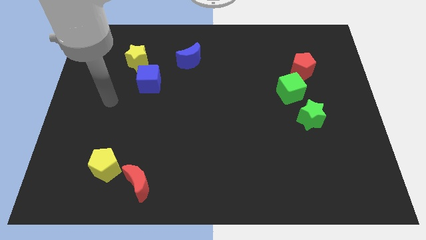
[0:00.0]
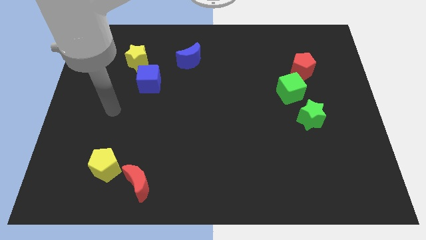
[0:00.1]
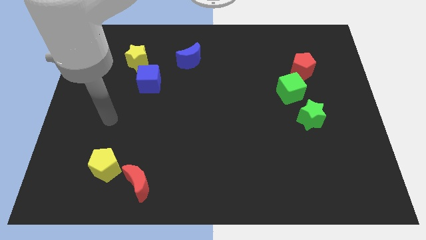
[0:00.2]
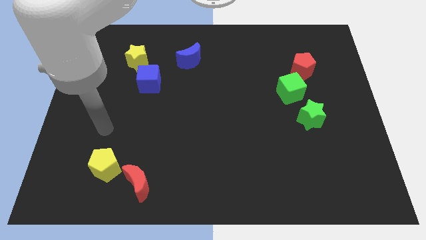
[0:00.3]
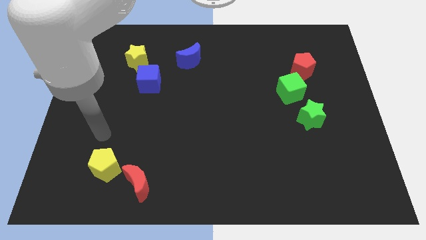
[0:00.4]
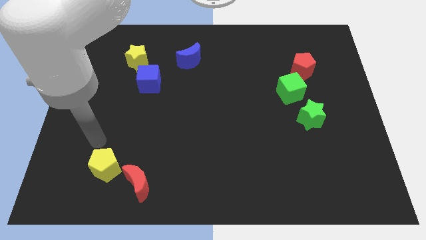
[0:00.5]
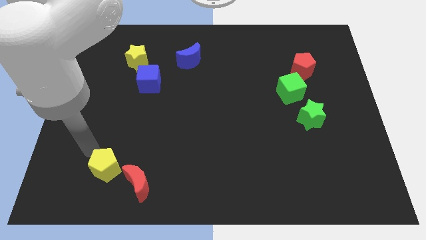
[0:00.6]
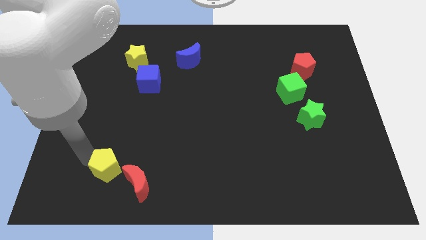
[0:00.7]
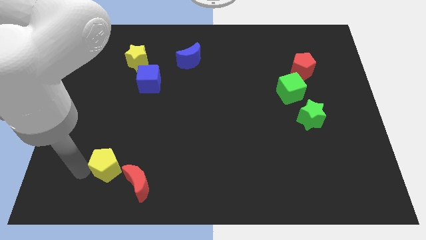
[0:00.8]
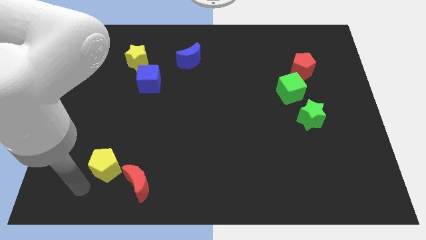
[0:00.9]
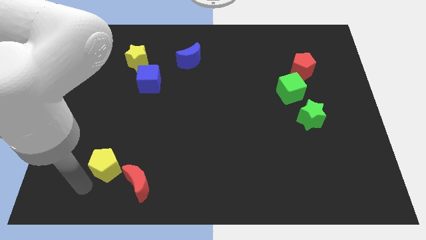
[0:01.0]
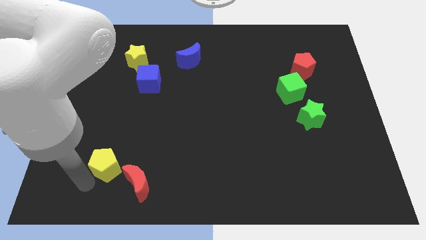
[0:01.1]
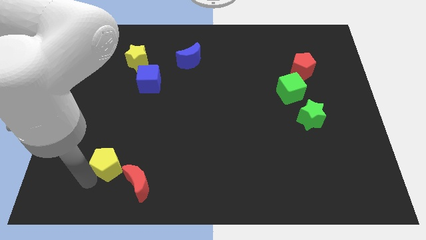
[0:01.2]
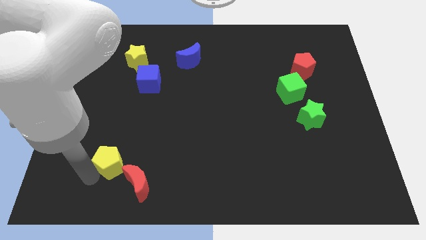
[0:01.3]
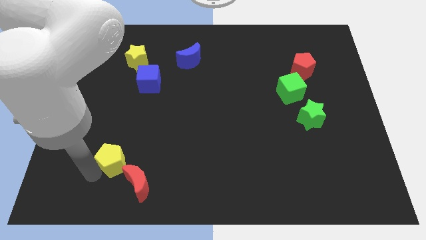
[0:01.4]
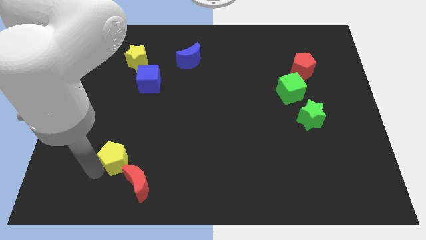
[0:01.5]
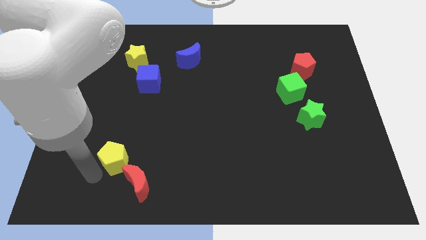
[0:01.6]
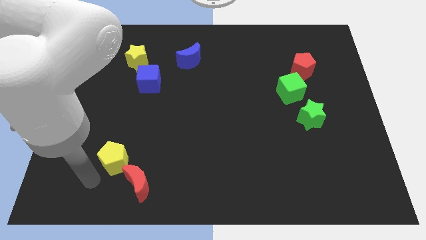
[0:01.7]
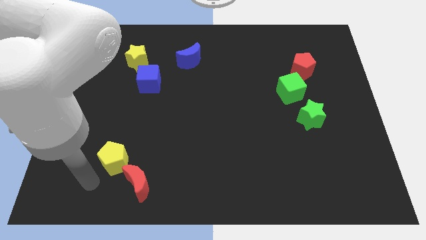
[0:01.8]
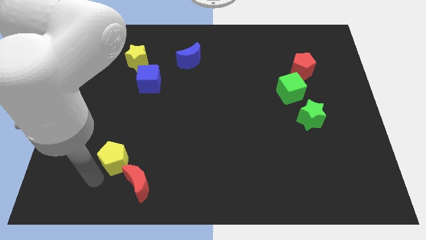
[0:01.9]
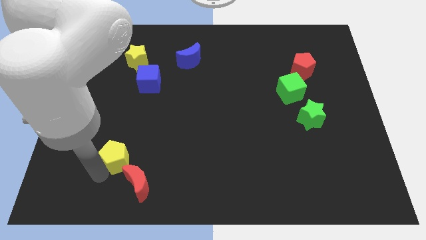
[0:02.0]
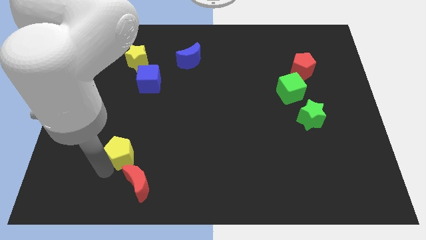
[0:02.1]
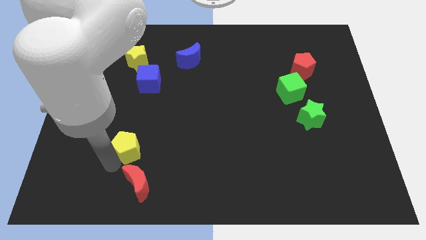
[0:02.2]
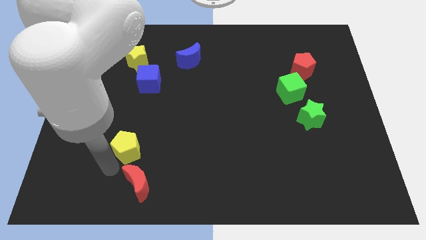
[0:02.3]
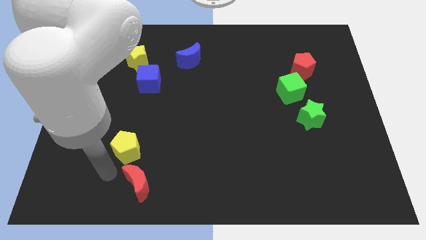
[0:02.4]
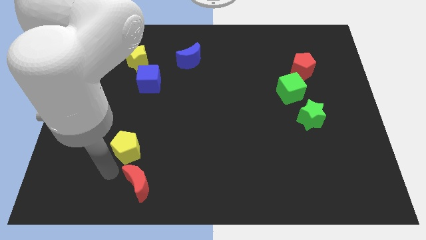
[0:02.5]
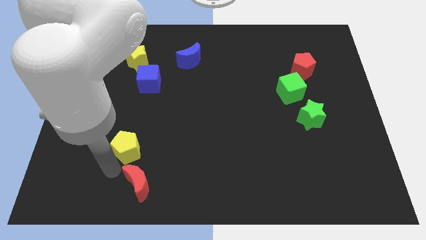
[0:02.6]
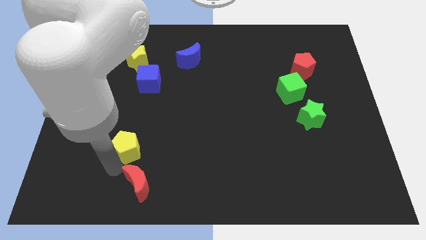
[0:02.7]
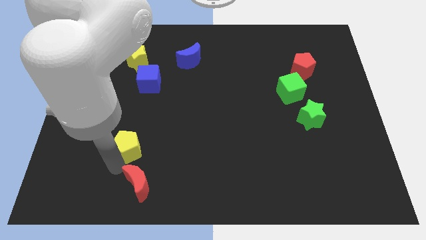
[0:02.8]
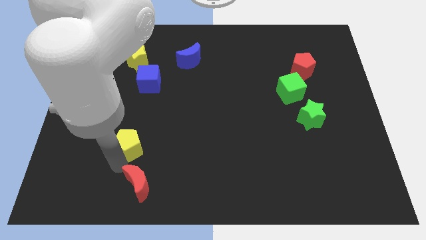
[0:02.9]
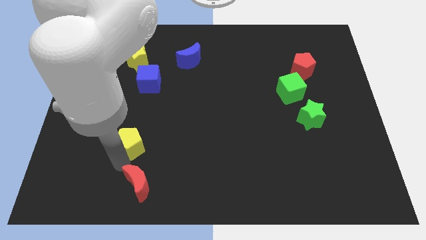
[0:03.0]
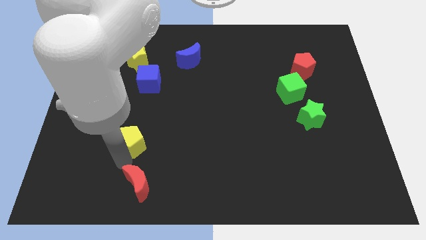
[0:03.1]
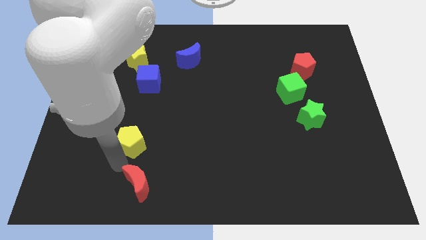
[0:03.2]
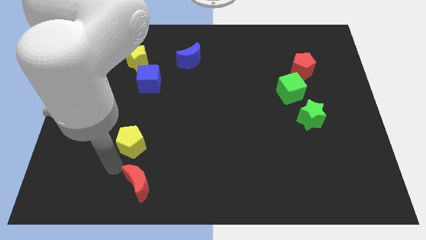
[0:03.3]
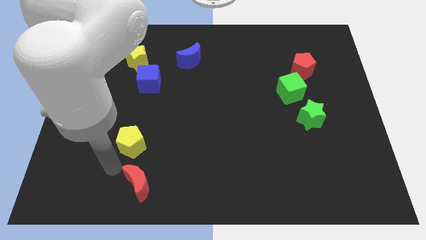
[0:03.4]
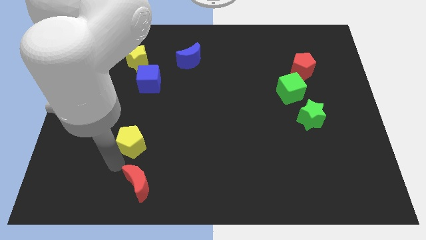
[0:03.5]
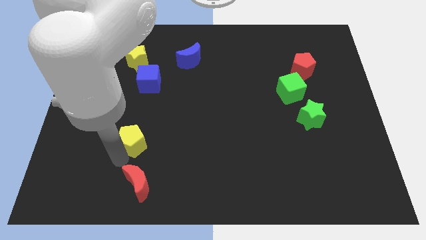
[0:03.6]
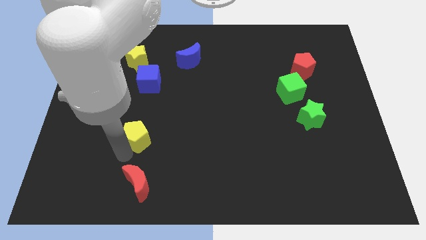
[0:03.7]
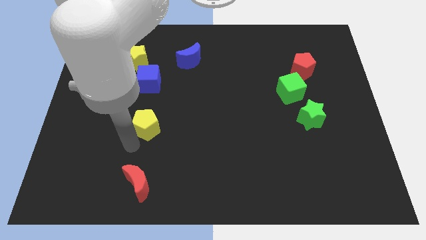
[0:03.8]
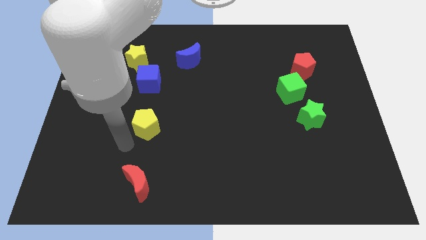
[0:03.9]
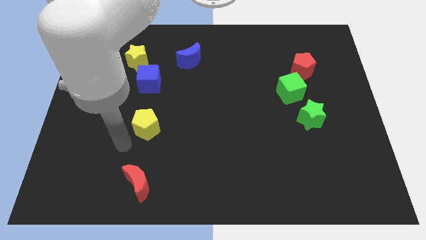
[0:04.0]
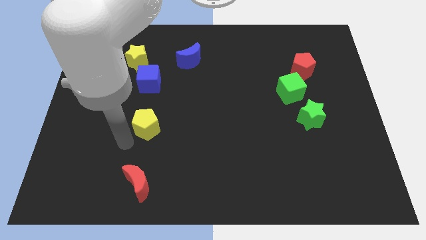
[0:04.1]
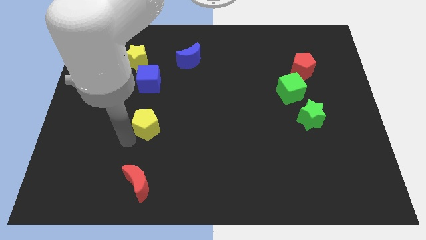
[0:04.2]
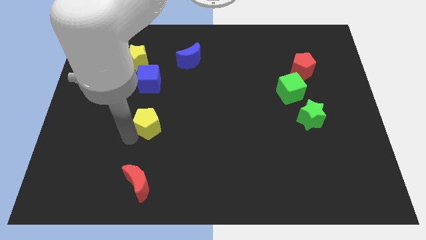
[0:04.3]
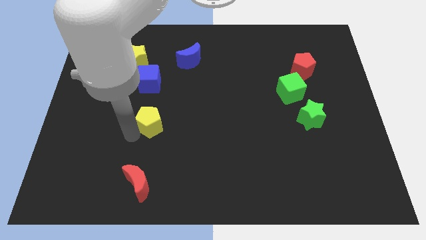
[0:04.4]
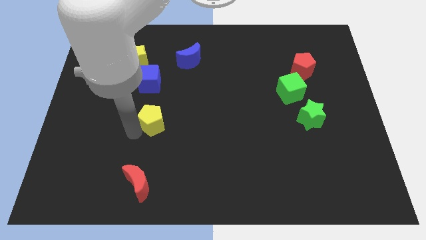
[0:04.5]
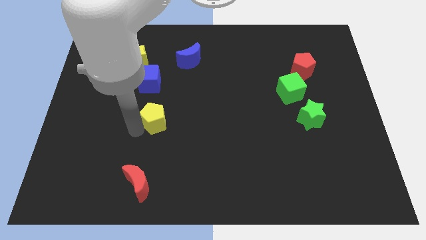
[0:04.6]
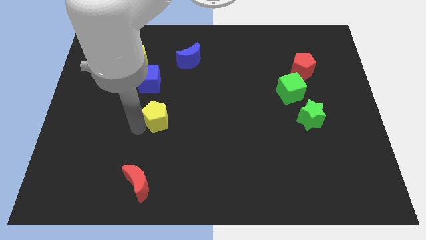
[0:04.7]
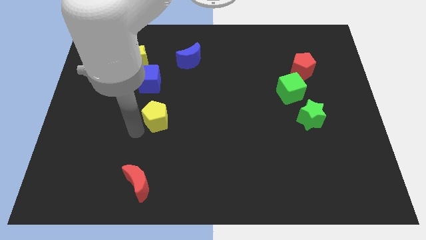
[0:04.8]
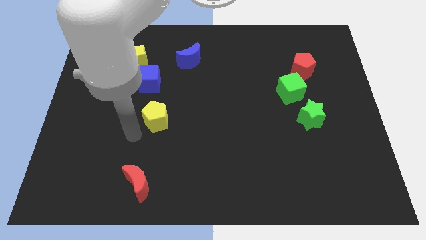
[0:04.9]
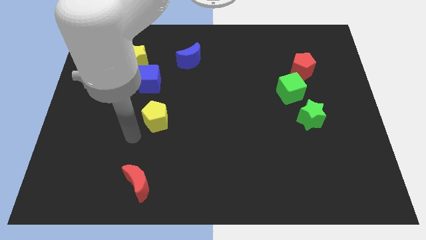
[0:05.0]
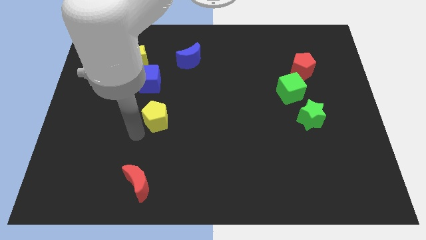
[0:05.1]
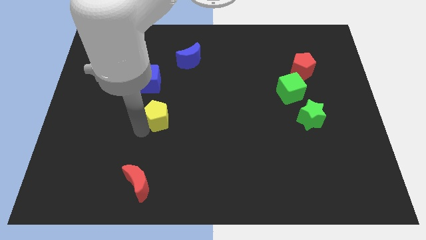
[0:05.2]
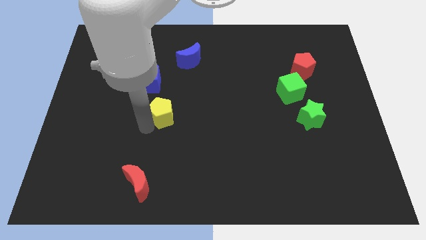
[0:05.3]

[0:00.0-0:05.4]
push the yellow pentagon to the bottom right of the blue cube

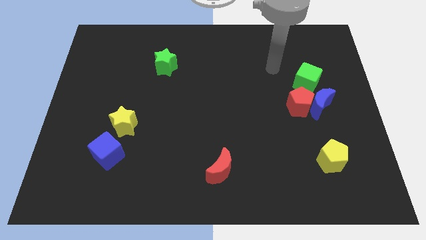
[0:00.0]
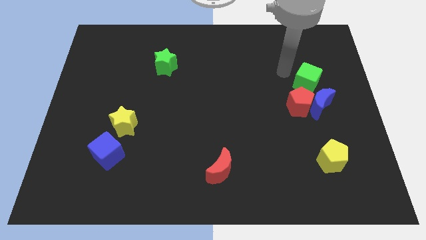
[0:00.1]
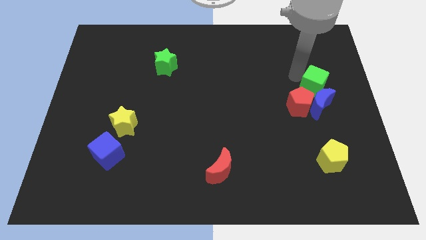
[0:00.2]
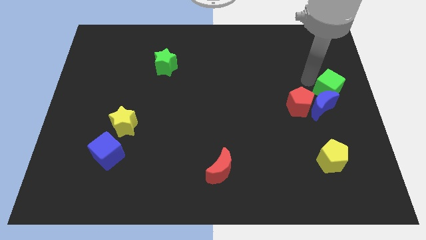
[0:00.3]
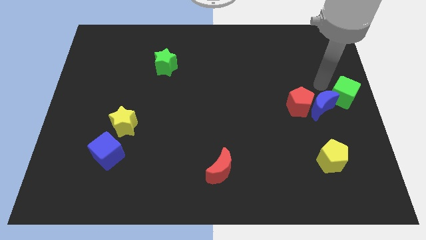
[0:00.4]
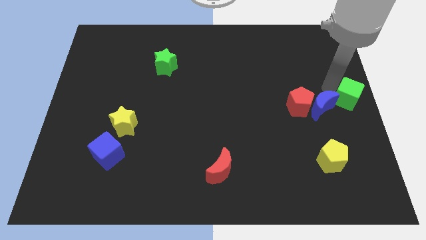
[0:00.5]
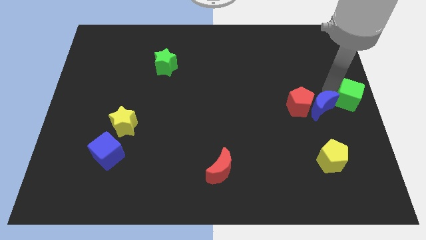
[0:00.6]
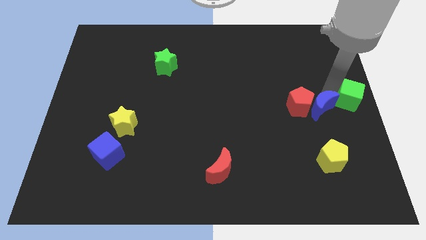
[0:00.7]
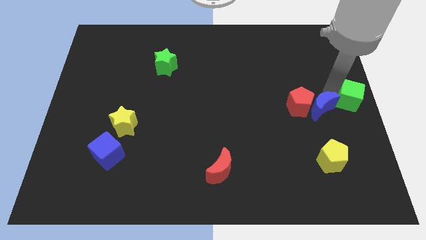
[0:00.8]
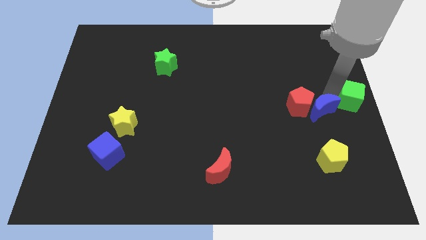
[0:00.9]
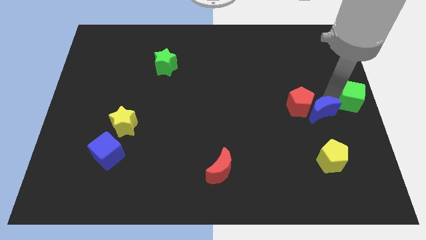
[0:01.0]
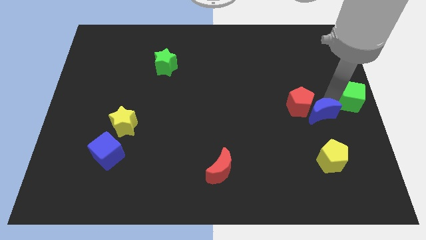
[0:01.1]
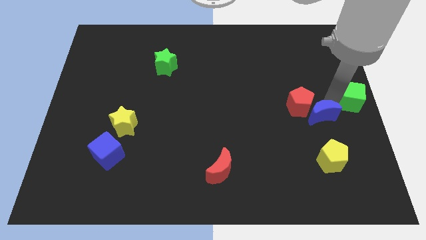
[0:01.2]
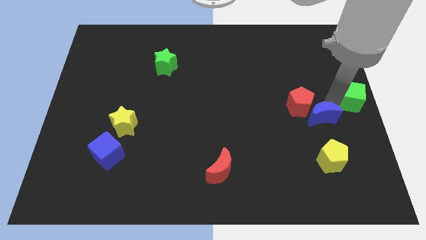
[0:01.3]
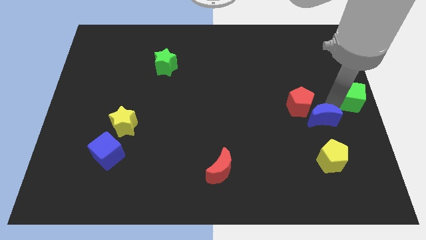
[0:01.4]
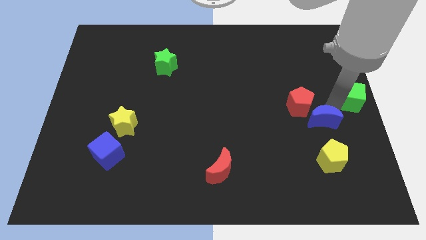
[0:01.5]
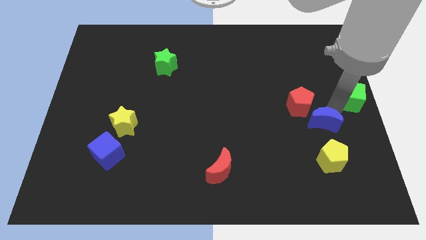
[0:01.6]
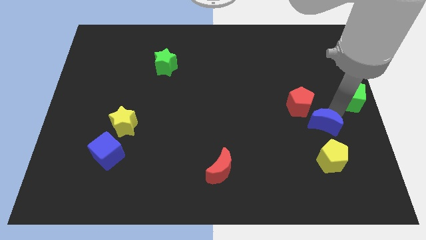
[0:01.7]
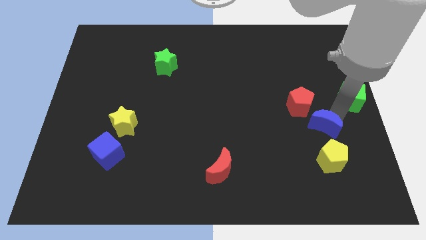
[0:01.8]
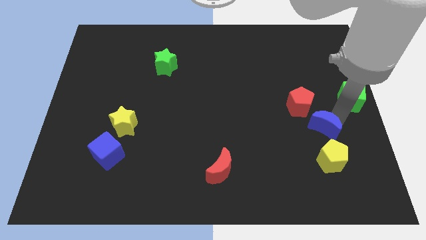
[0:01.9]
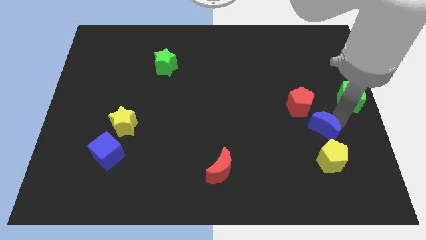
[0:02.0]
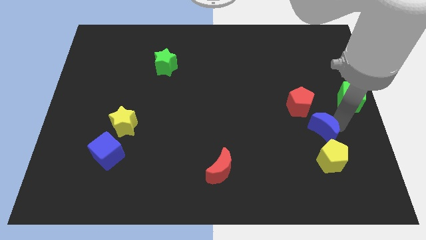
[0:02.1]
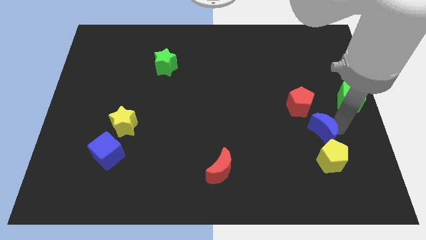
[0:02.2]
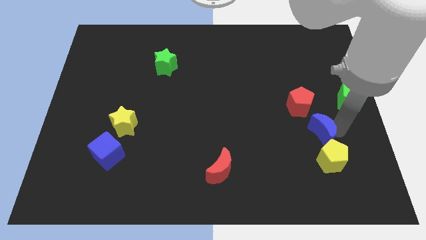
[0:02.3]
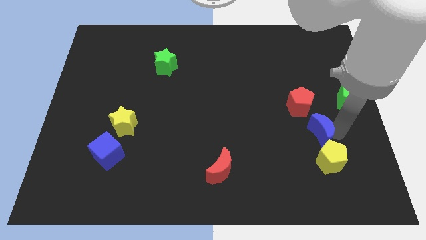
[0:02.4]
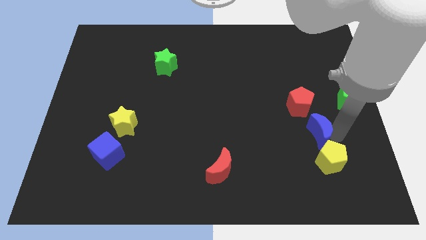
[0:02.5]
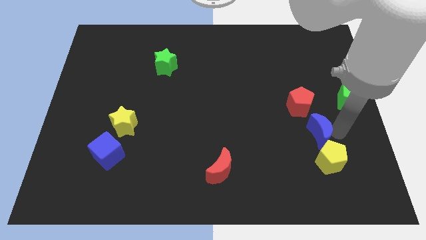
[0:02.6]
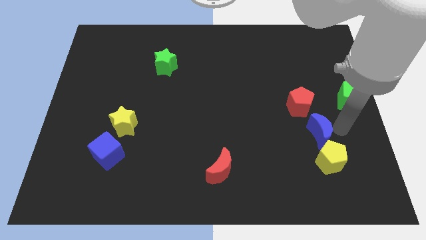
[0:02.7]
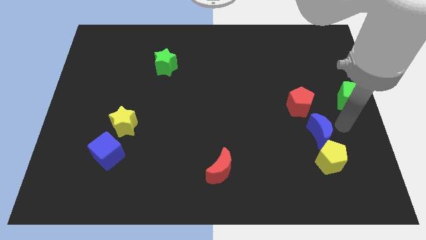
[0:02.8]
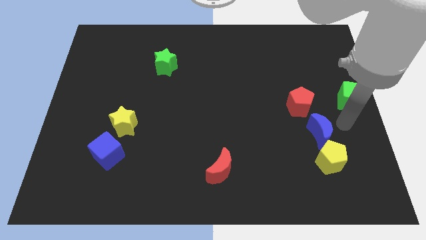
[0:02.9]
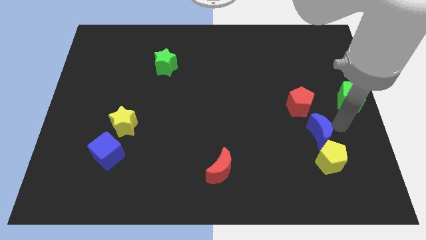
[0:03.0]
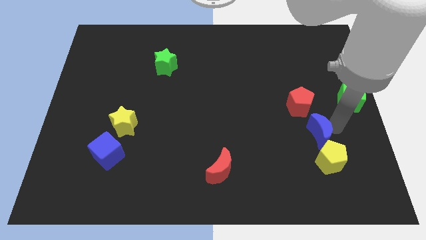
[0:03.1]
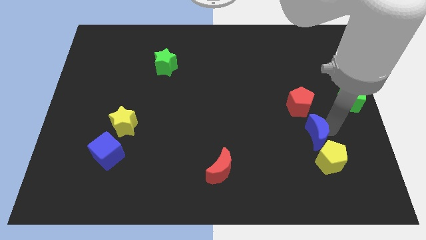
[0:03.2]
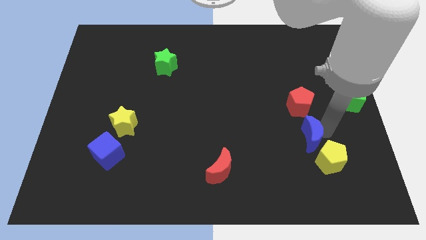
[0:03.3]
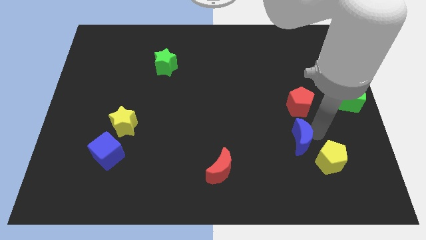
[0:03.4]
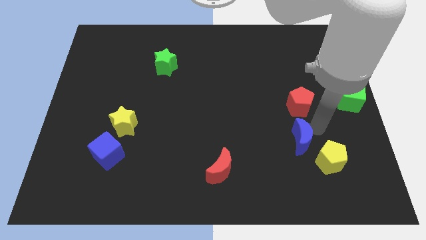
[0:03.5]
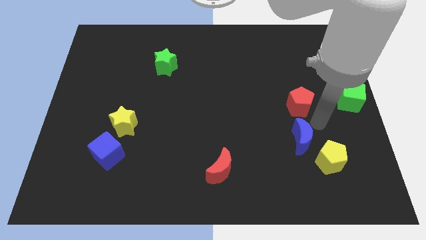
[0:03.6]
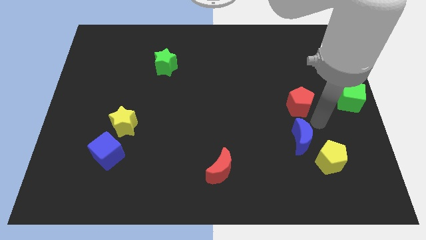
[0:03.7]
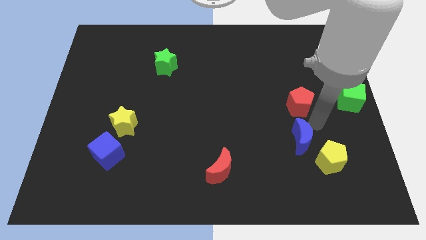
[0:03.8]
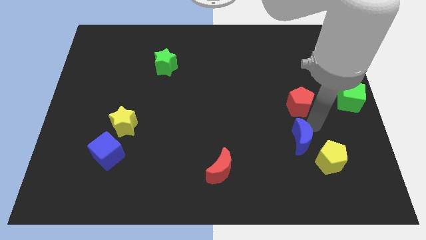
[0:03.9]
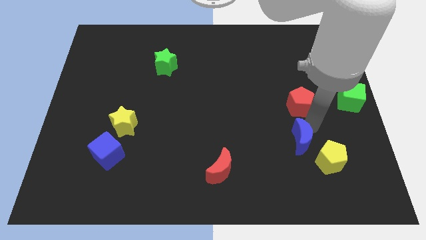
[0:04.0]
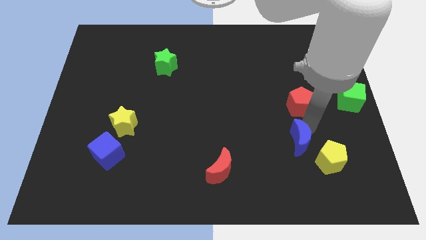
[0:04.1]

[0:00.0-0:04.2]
slide the blue moon left of the yellow pentagon
